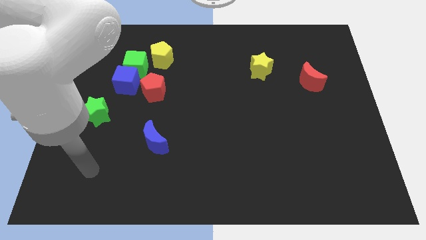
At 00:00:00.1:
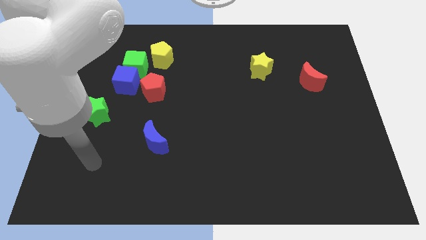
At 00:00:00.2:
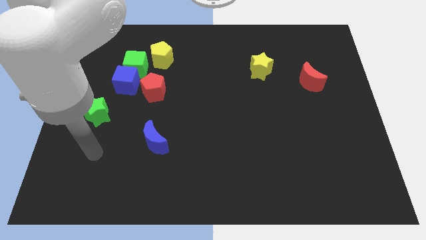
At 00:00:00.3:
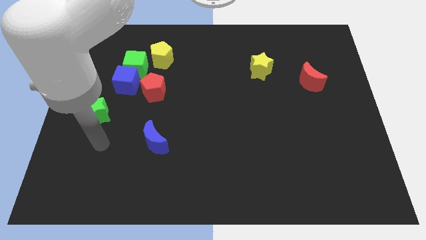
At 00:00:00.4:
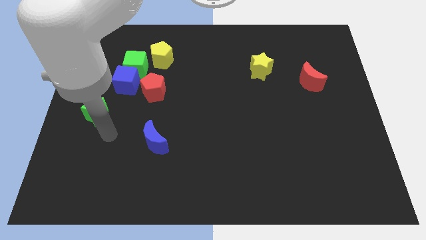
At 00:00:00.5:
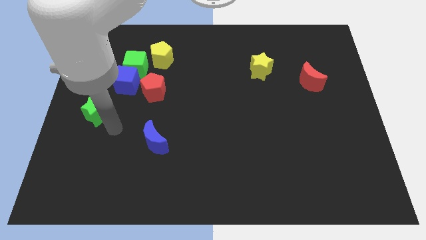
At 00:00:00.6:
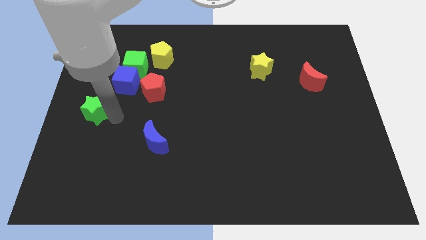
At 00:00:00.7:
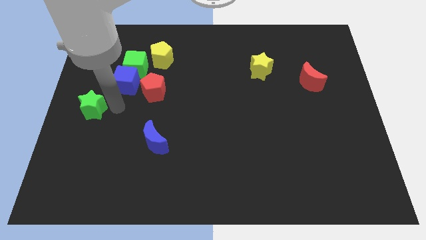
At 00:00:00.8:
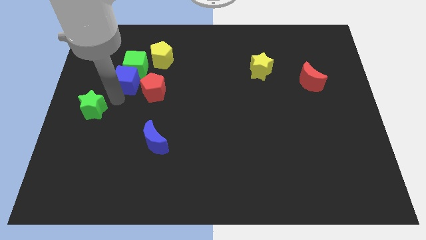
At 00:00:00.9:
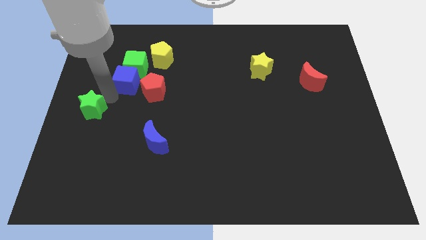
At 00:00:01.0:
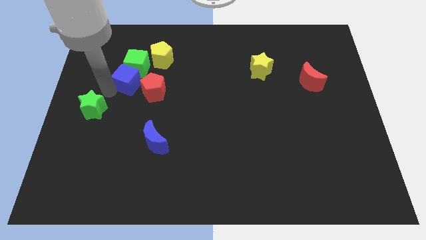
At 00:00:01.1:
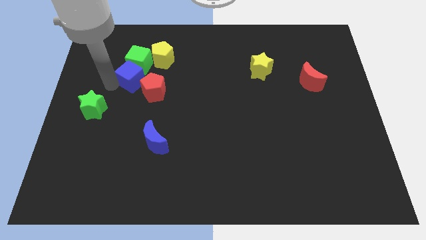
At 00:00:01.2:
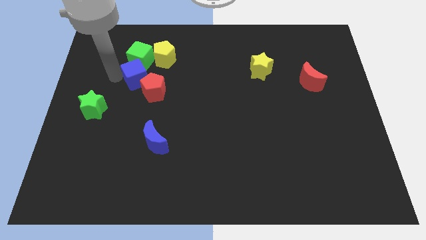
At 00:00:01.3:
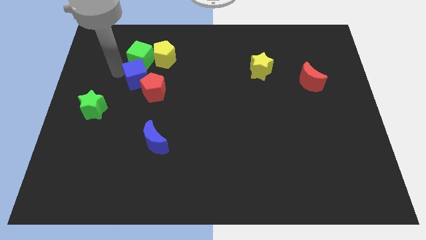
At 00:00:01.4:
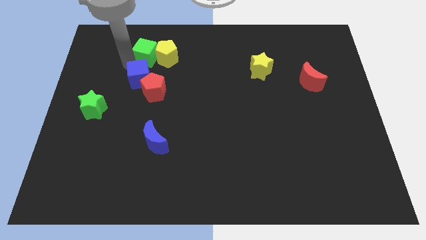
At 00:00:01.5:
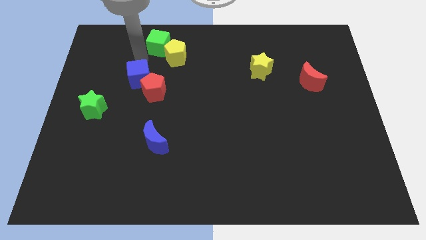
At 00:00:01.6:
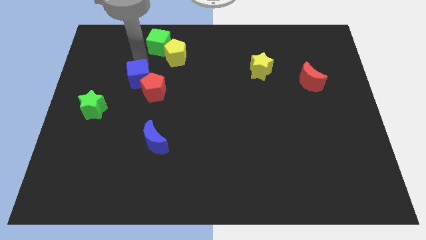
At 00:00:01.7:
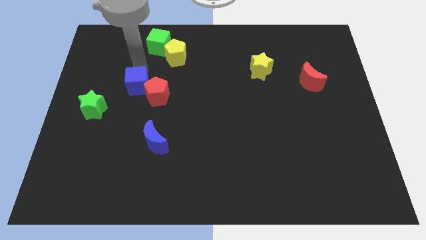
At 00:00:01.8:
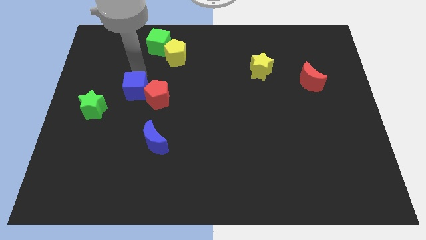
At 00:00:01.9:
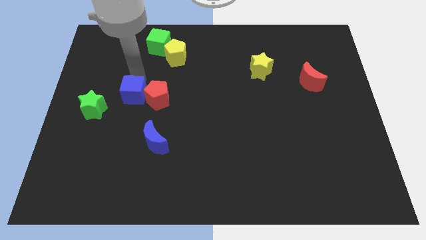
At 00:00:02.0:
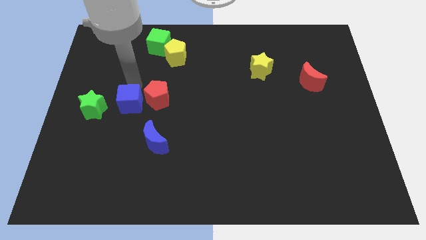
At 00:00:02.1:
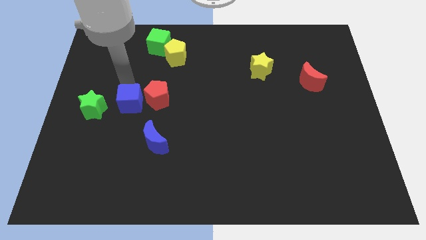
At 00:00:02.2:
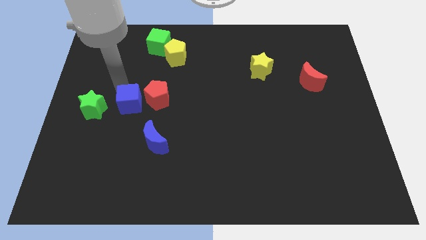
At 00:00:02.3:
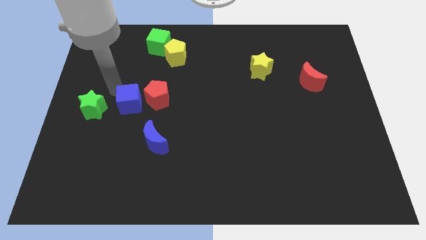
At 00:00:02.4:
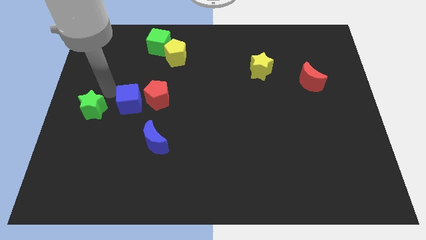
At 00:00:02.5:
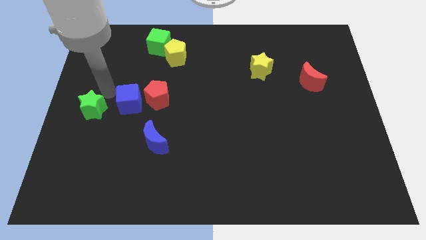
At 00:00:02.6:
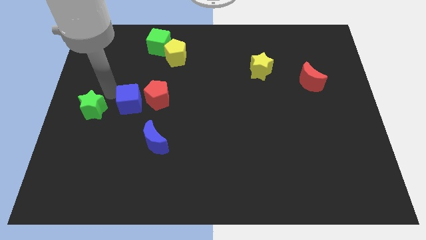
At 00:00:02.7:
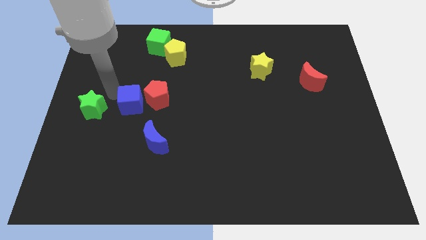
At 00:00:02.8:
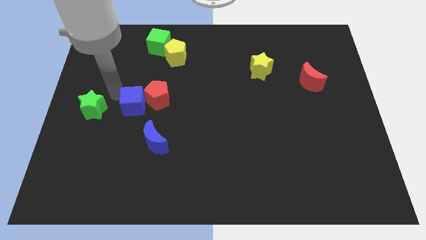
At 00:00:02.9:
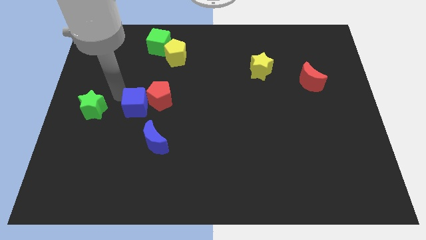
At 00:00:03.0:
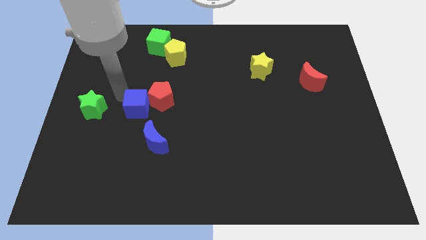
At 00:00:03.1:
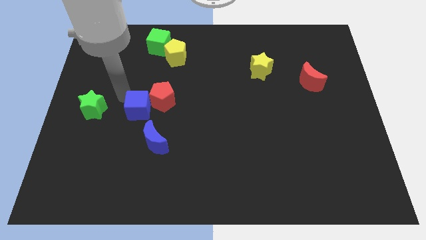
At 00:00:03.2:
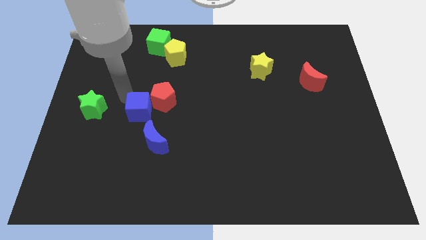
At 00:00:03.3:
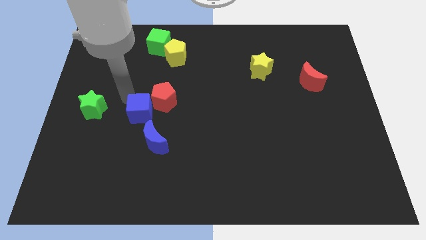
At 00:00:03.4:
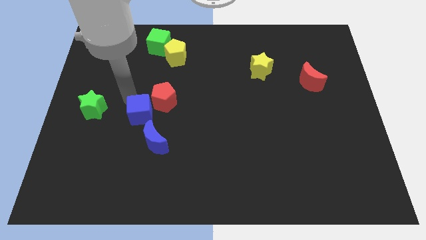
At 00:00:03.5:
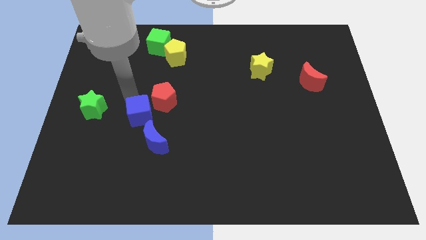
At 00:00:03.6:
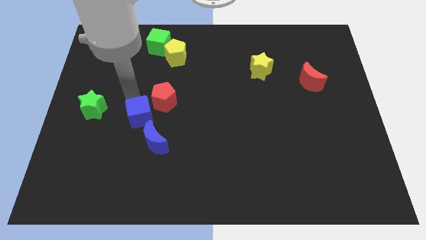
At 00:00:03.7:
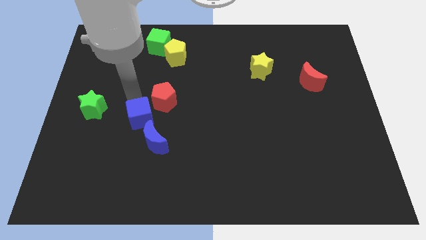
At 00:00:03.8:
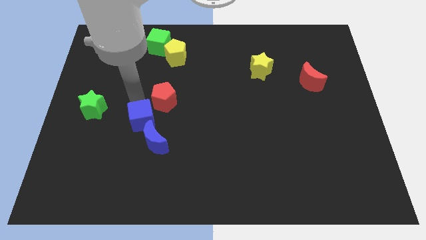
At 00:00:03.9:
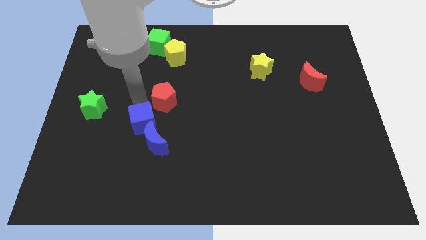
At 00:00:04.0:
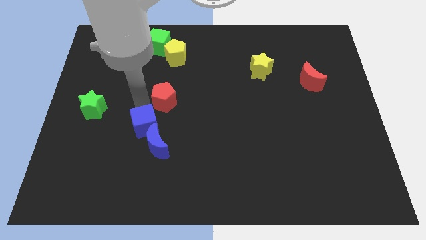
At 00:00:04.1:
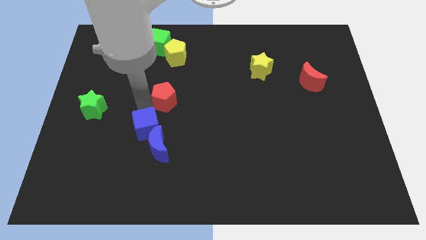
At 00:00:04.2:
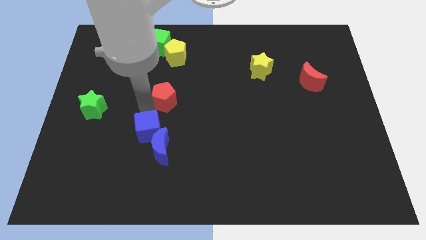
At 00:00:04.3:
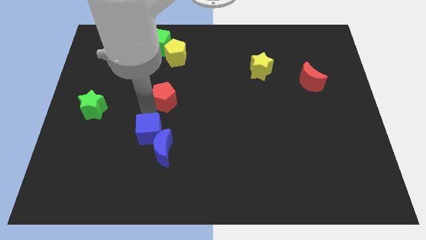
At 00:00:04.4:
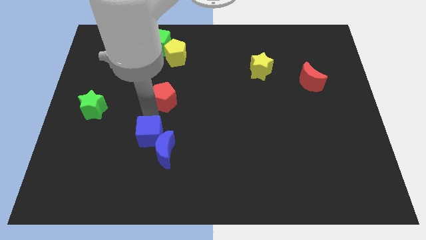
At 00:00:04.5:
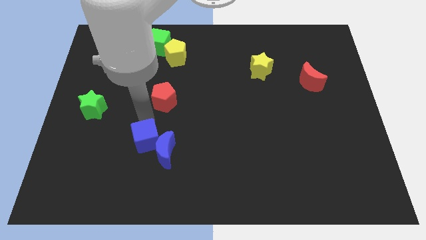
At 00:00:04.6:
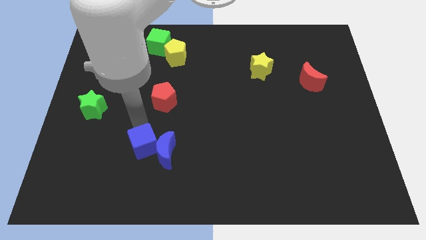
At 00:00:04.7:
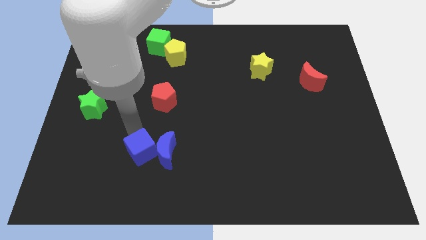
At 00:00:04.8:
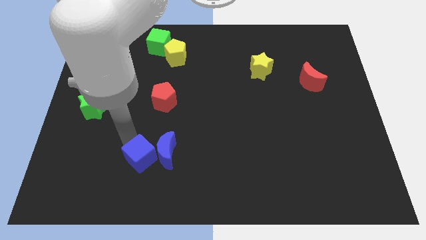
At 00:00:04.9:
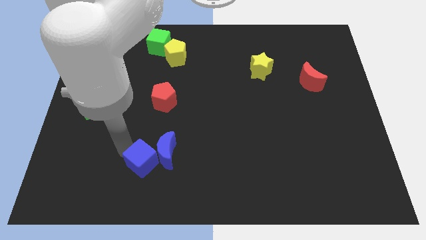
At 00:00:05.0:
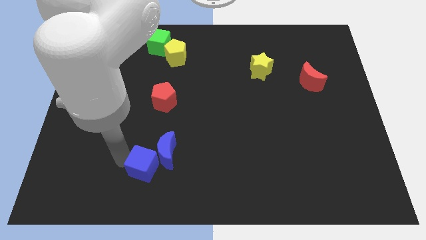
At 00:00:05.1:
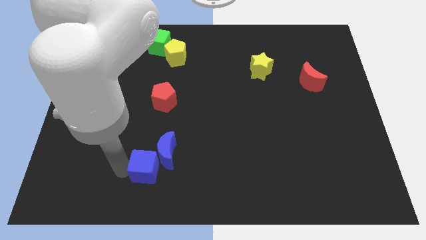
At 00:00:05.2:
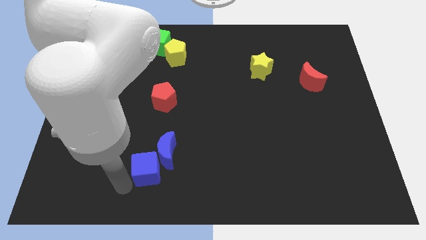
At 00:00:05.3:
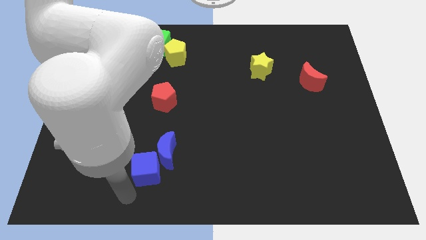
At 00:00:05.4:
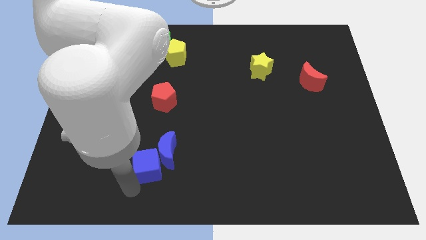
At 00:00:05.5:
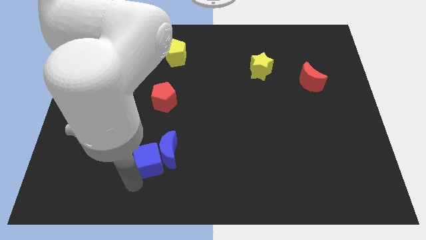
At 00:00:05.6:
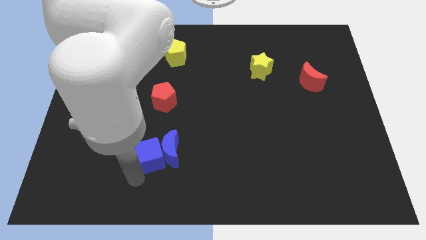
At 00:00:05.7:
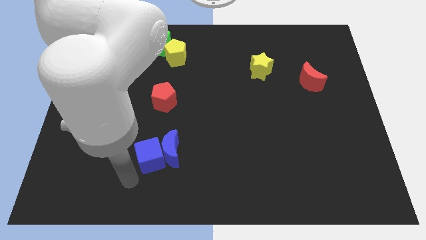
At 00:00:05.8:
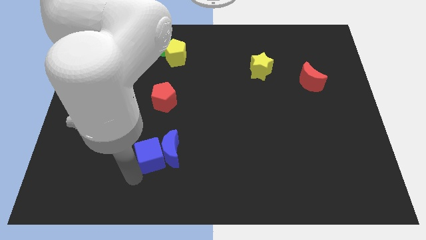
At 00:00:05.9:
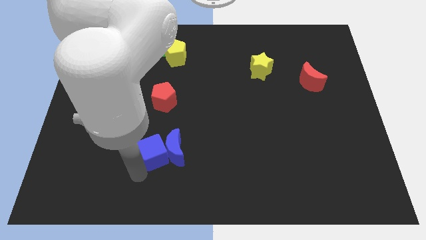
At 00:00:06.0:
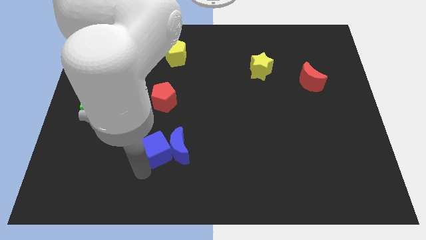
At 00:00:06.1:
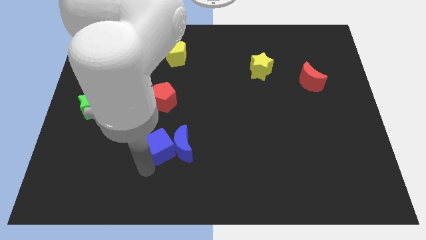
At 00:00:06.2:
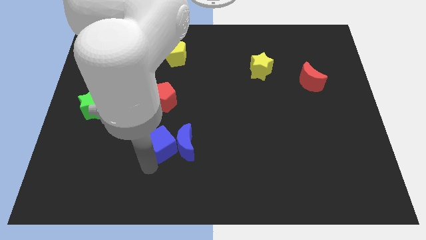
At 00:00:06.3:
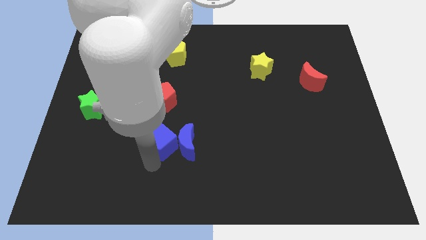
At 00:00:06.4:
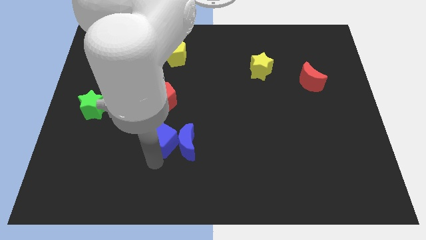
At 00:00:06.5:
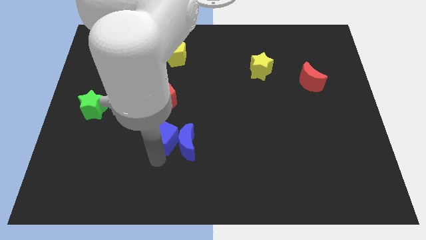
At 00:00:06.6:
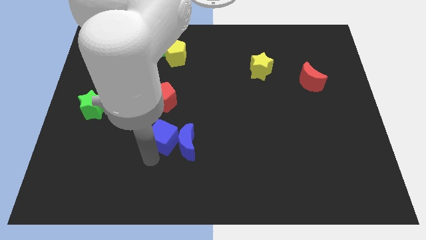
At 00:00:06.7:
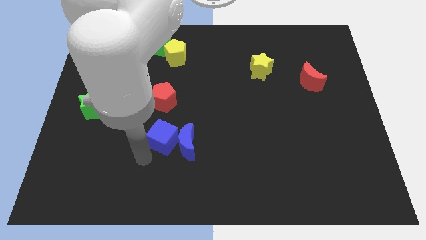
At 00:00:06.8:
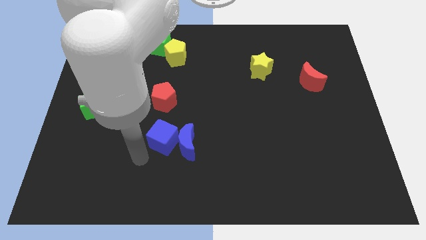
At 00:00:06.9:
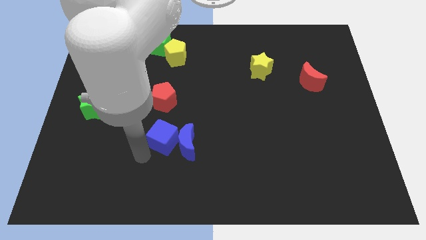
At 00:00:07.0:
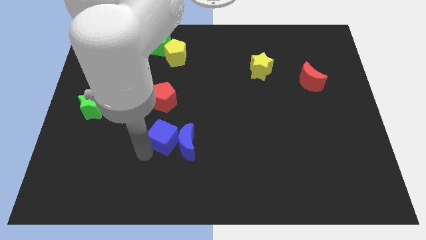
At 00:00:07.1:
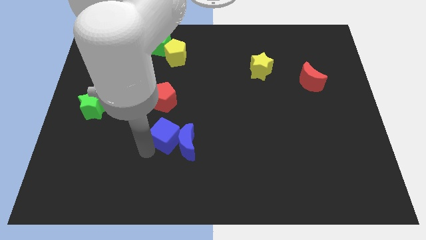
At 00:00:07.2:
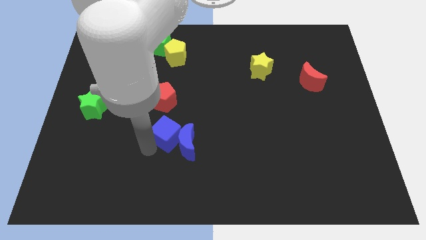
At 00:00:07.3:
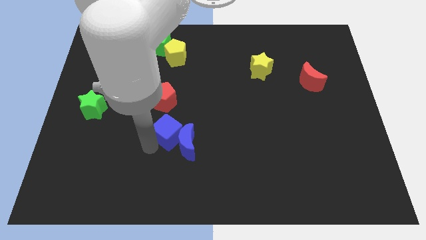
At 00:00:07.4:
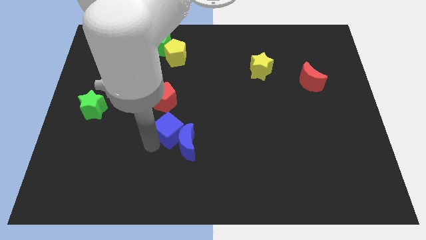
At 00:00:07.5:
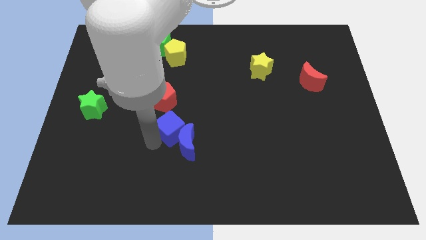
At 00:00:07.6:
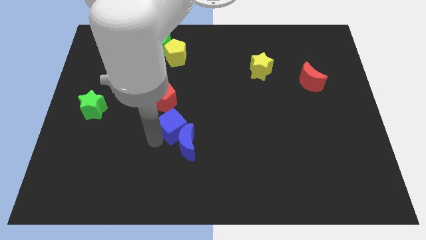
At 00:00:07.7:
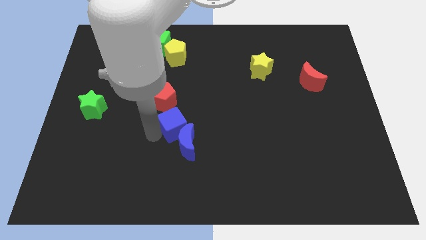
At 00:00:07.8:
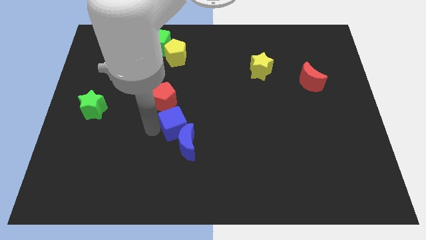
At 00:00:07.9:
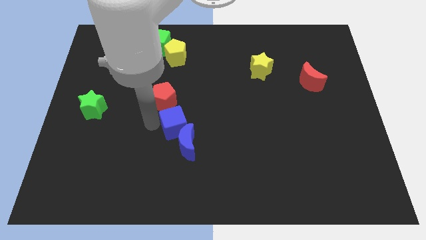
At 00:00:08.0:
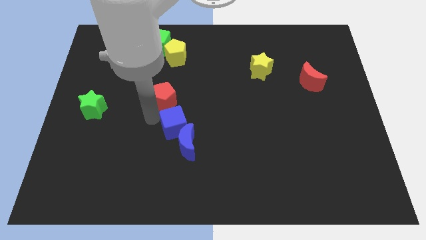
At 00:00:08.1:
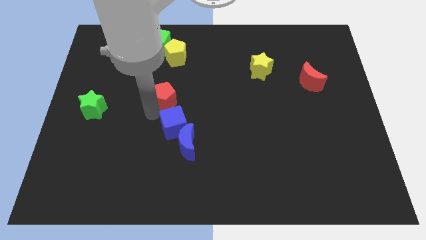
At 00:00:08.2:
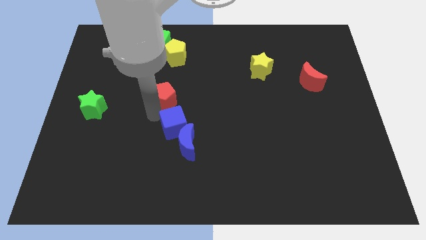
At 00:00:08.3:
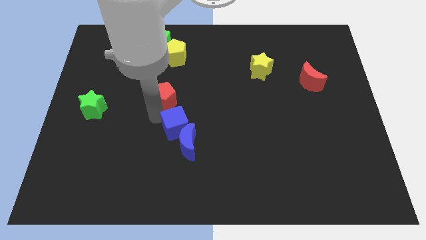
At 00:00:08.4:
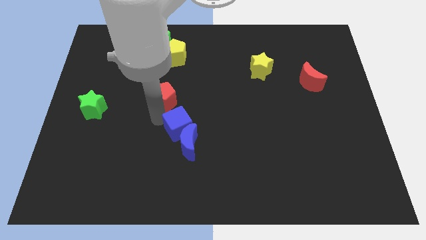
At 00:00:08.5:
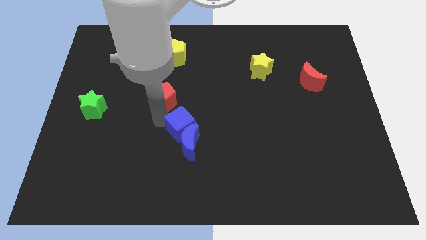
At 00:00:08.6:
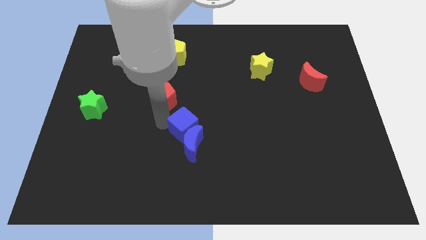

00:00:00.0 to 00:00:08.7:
push the blue cube downwards and right
